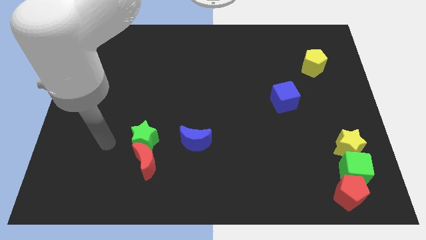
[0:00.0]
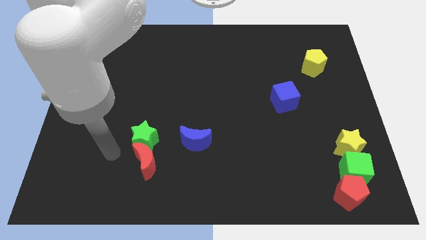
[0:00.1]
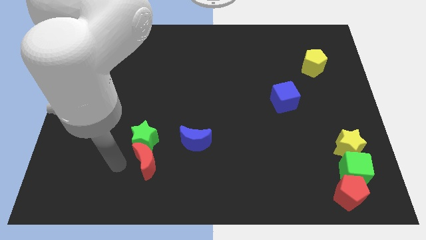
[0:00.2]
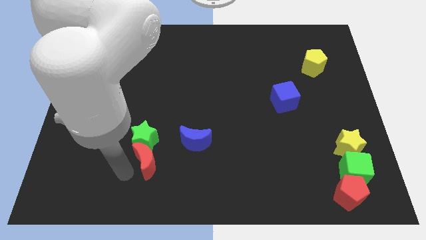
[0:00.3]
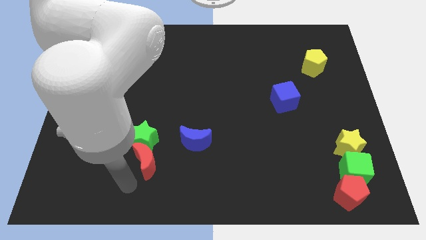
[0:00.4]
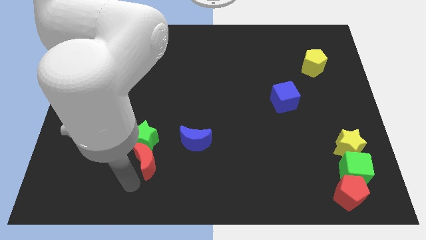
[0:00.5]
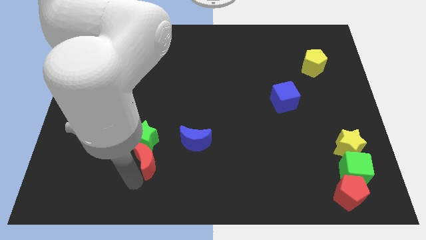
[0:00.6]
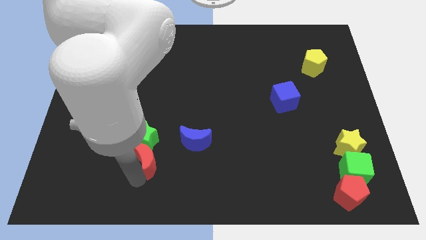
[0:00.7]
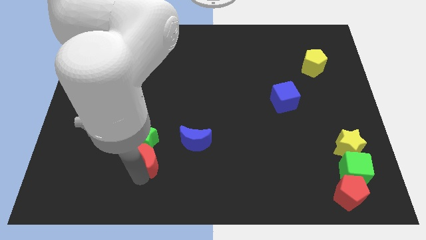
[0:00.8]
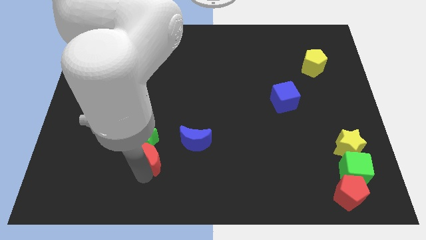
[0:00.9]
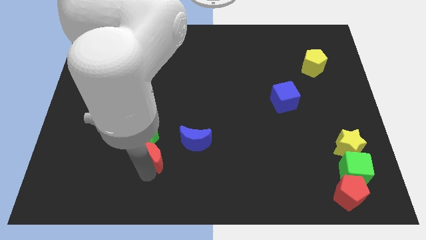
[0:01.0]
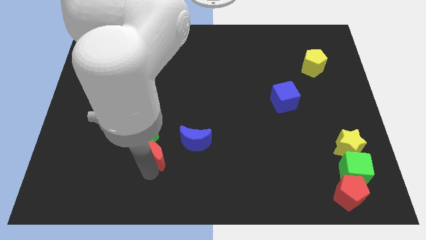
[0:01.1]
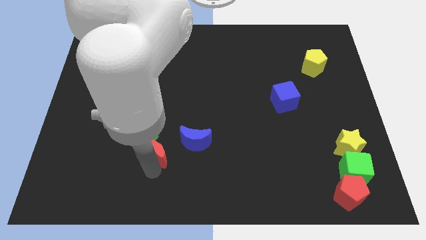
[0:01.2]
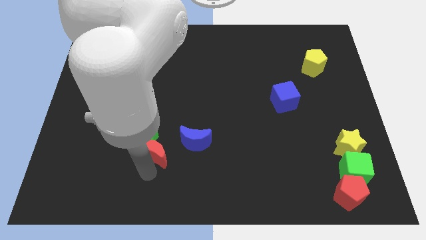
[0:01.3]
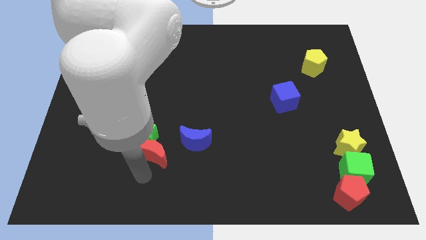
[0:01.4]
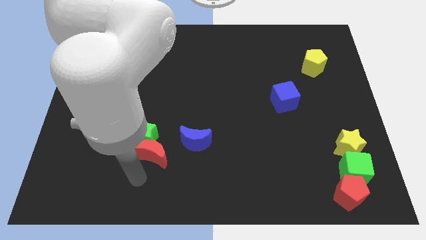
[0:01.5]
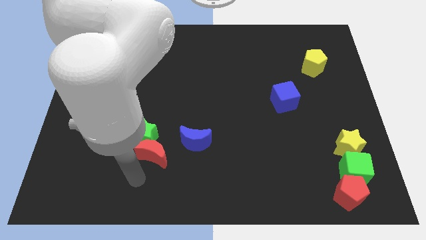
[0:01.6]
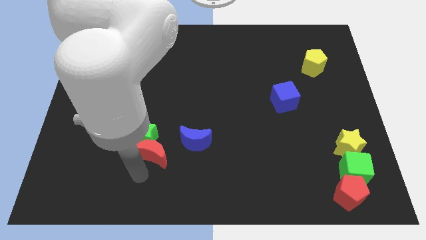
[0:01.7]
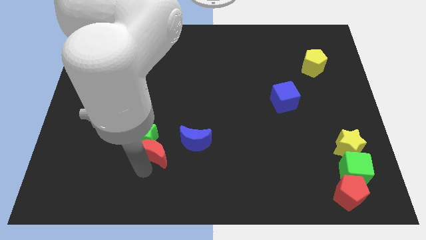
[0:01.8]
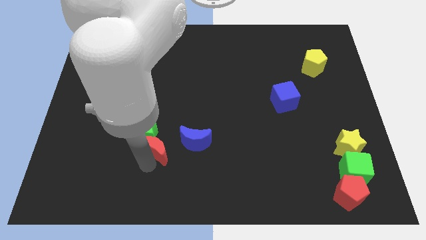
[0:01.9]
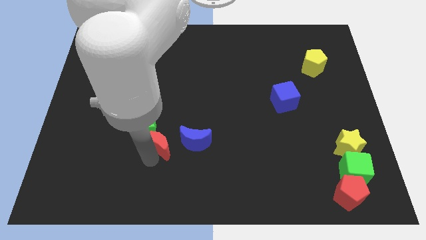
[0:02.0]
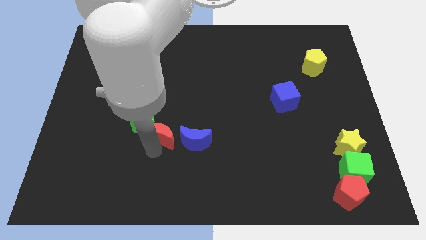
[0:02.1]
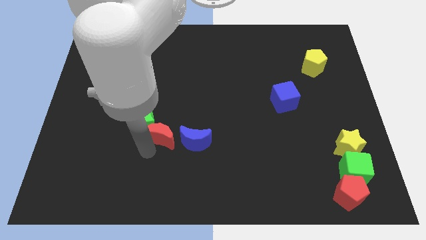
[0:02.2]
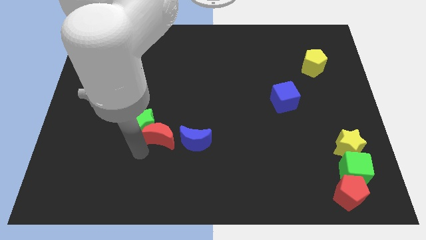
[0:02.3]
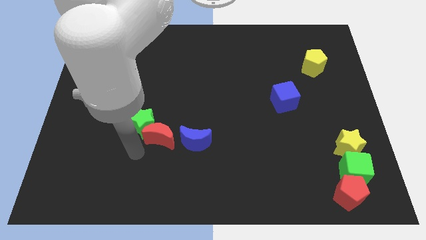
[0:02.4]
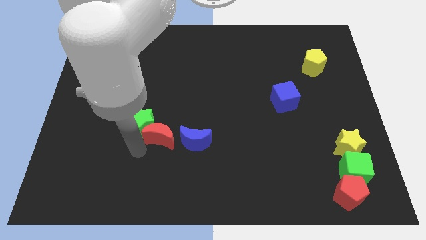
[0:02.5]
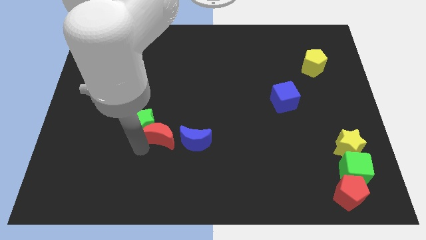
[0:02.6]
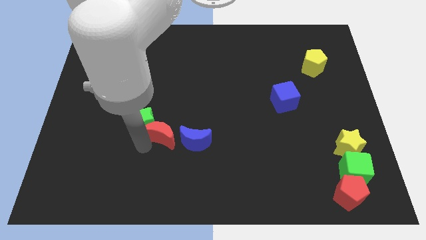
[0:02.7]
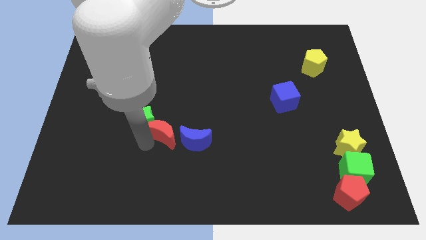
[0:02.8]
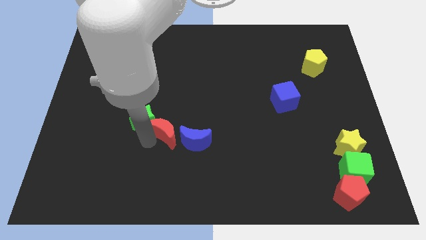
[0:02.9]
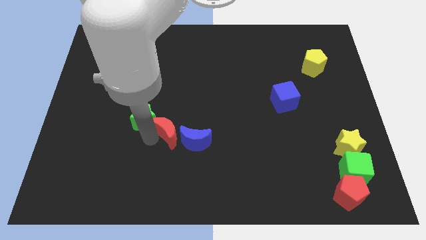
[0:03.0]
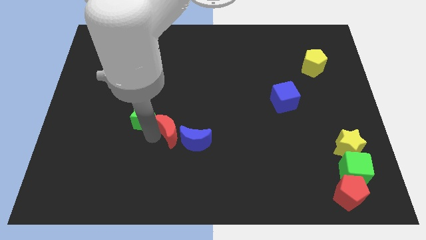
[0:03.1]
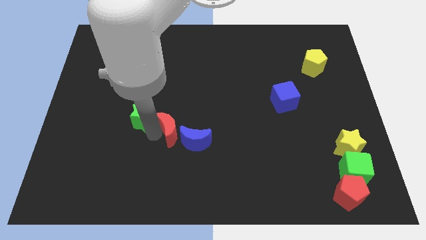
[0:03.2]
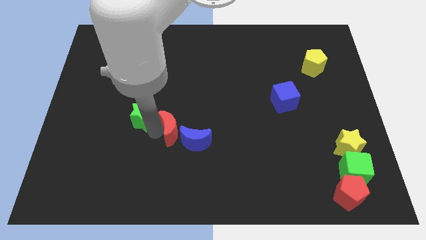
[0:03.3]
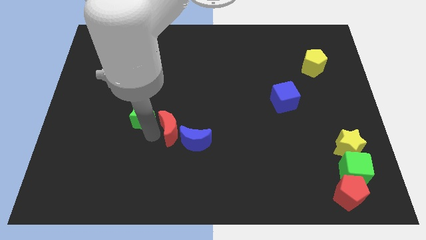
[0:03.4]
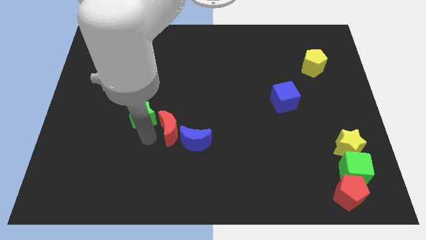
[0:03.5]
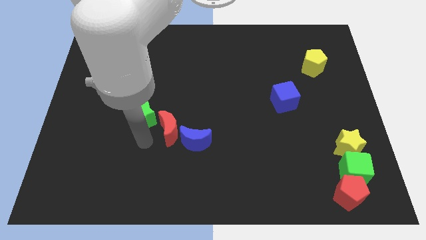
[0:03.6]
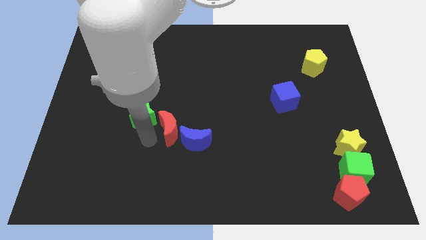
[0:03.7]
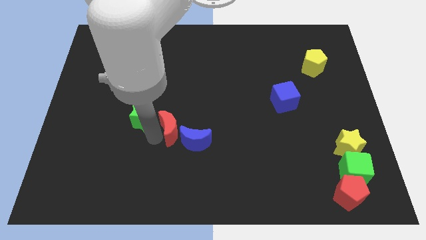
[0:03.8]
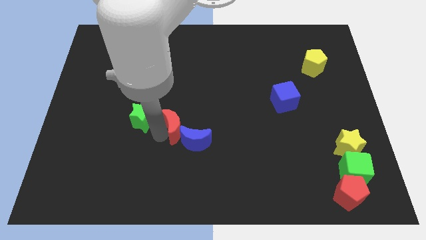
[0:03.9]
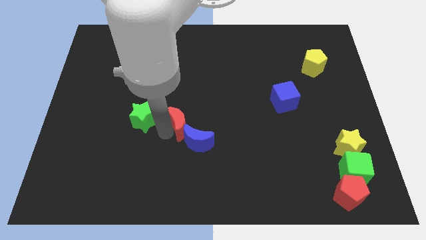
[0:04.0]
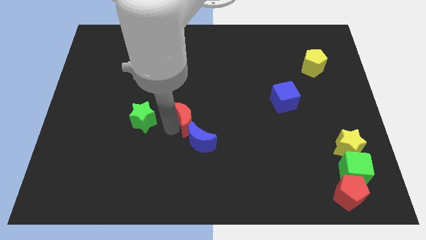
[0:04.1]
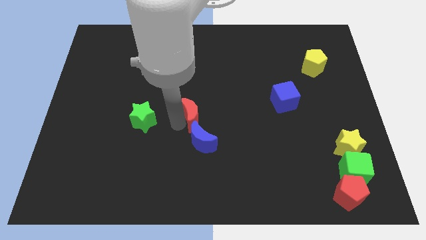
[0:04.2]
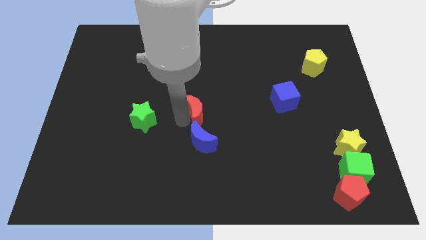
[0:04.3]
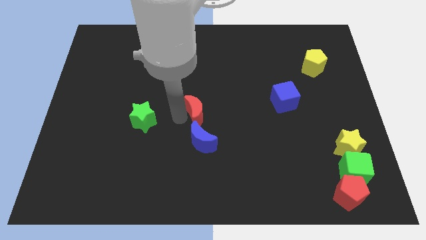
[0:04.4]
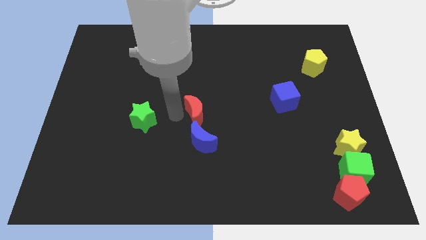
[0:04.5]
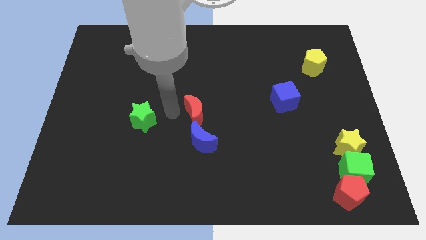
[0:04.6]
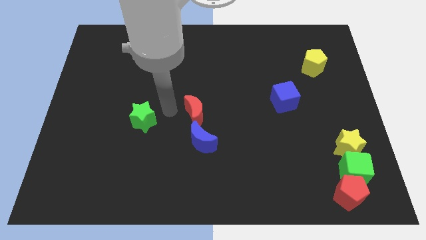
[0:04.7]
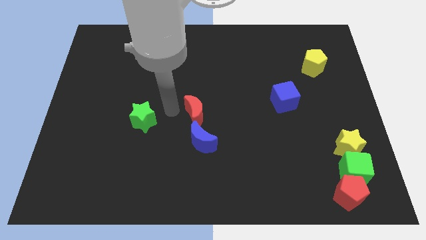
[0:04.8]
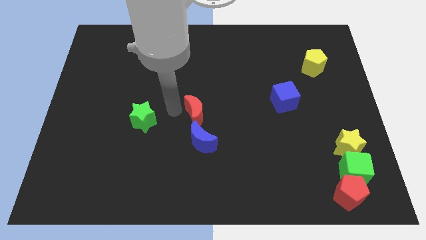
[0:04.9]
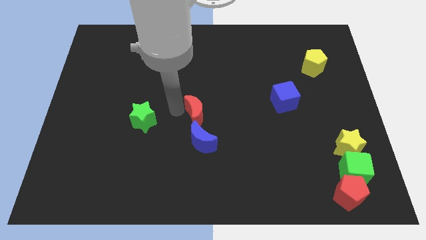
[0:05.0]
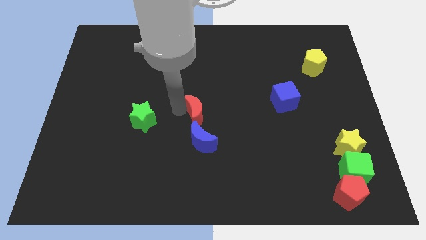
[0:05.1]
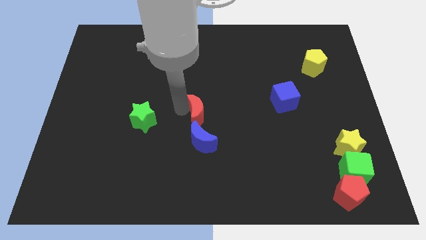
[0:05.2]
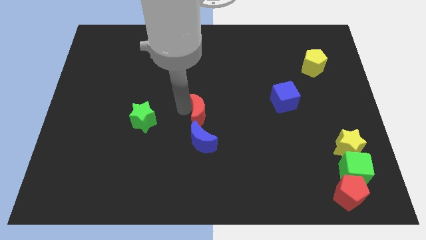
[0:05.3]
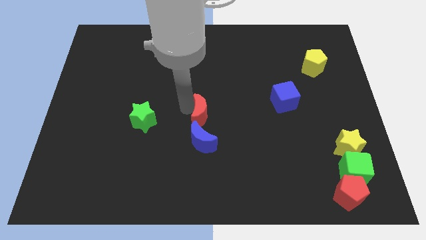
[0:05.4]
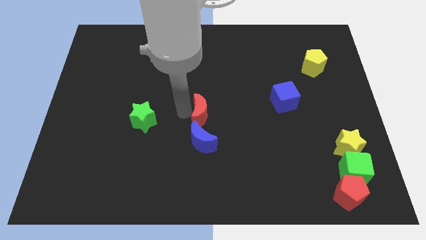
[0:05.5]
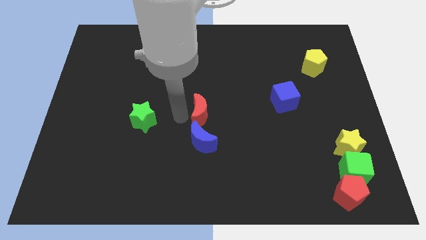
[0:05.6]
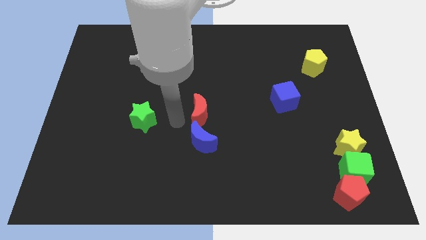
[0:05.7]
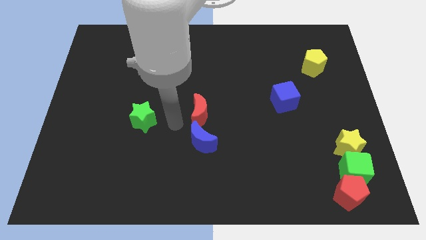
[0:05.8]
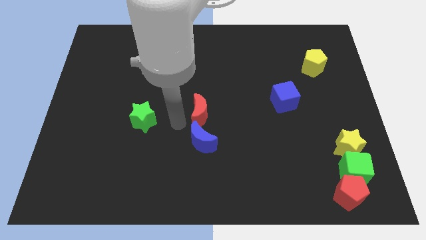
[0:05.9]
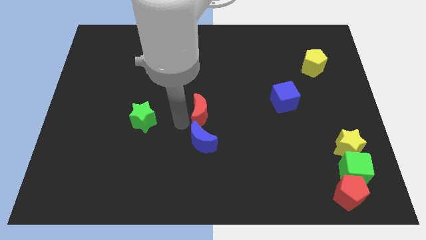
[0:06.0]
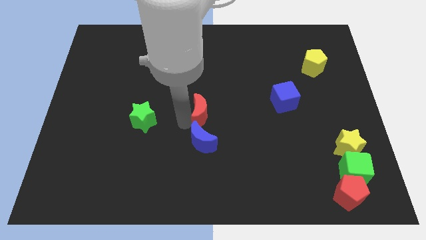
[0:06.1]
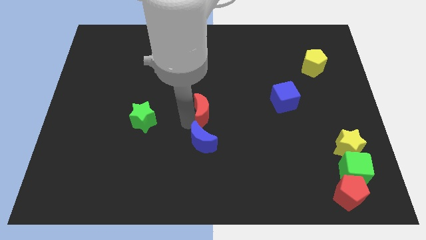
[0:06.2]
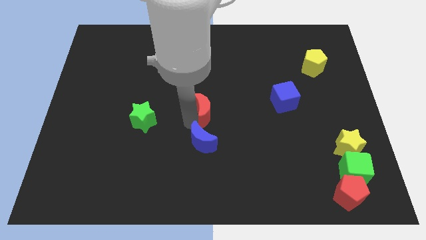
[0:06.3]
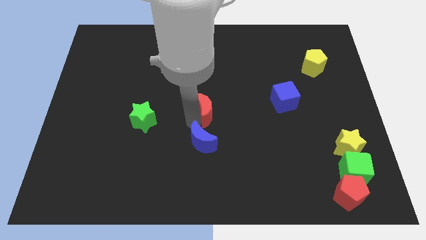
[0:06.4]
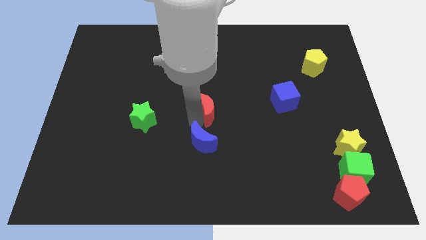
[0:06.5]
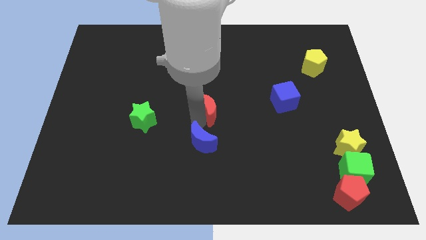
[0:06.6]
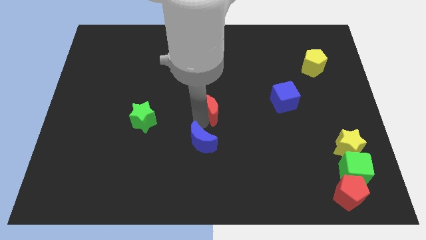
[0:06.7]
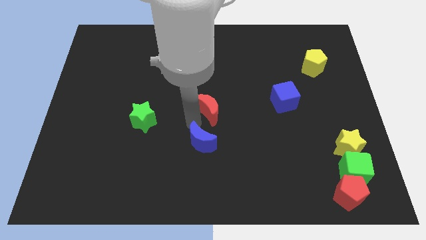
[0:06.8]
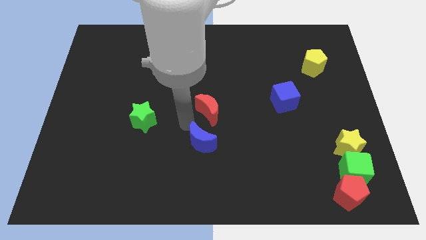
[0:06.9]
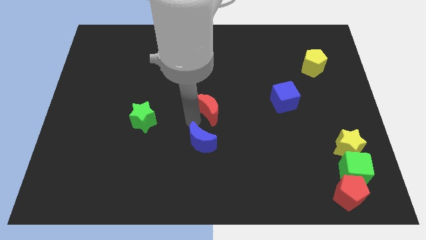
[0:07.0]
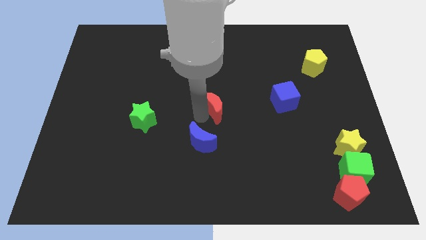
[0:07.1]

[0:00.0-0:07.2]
slide the red moon up and to the right diagonally

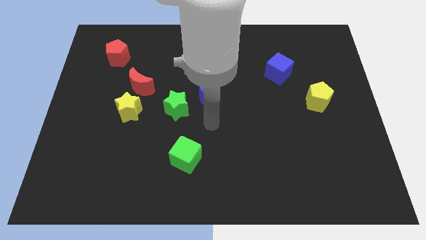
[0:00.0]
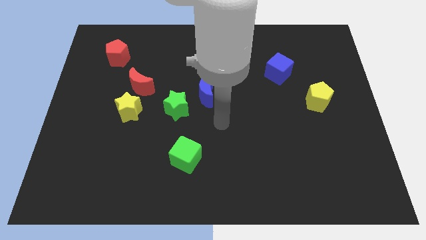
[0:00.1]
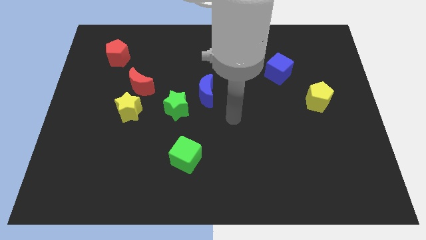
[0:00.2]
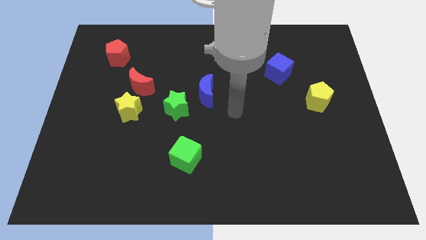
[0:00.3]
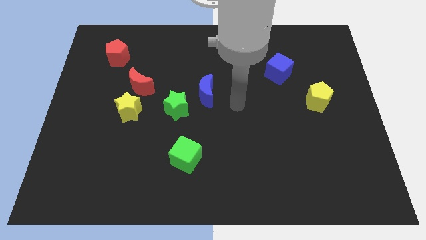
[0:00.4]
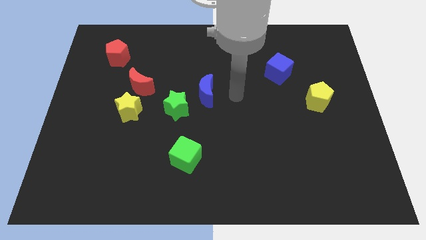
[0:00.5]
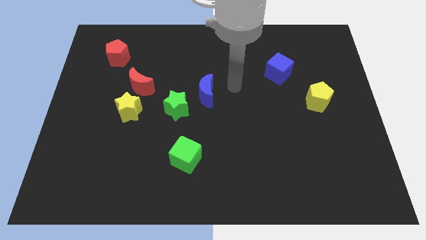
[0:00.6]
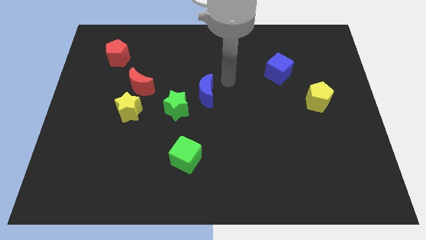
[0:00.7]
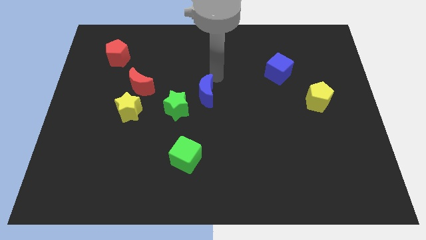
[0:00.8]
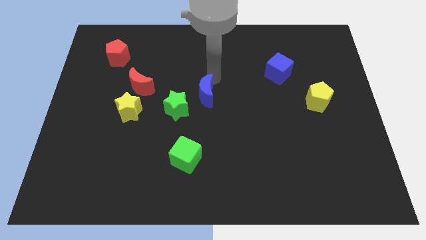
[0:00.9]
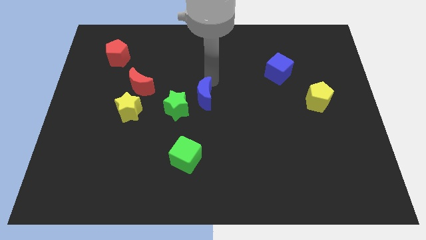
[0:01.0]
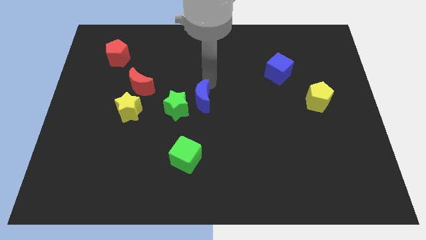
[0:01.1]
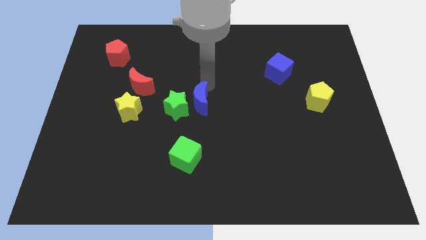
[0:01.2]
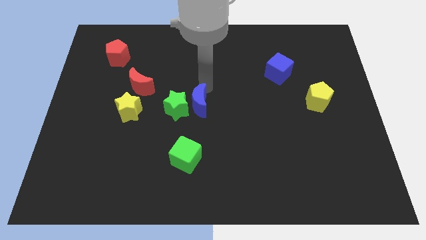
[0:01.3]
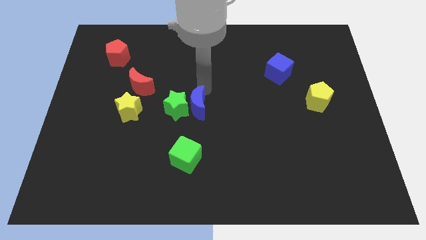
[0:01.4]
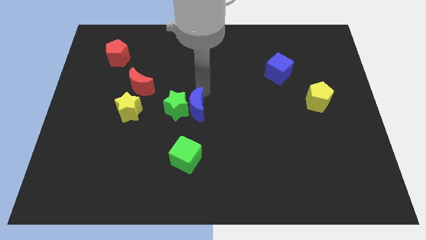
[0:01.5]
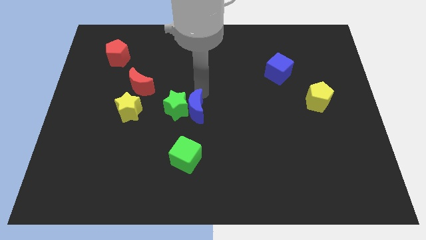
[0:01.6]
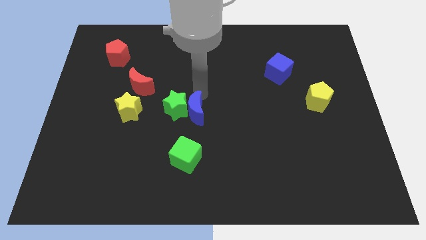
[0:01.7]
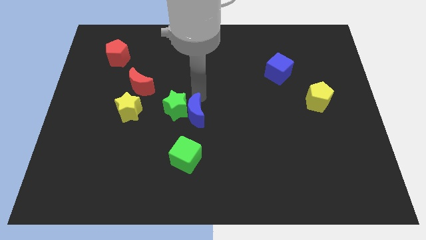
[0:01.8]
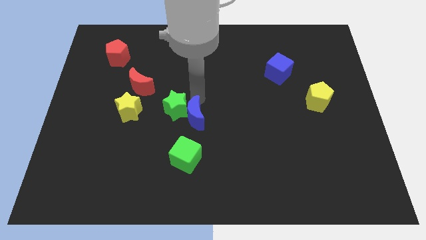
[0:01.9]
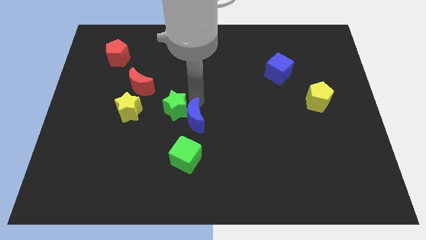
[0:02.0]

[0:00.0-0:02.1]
slightly slide the blue moon diagonally downwards and to the left
